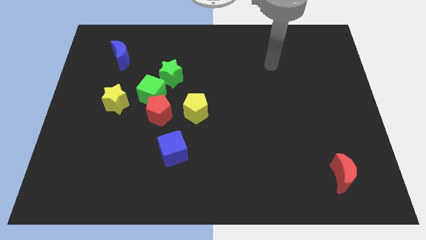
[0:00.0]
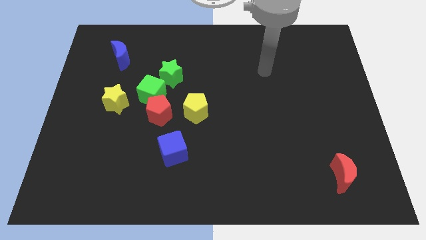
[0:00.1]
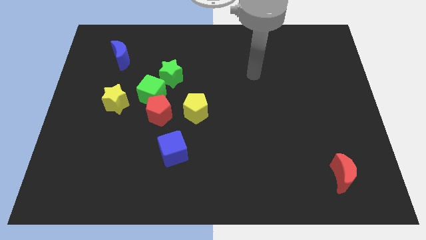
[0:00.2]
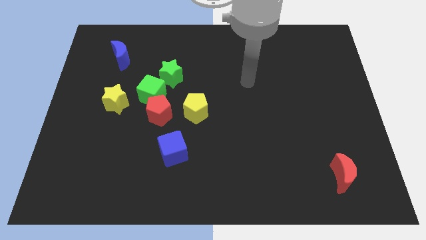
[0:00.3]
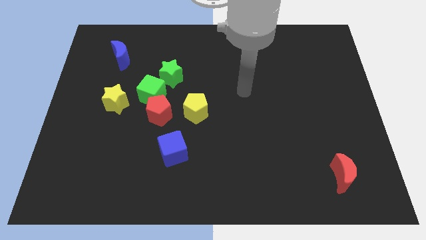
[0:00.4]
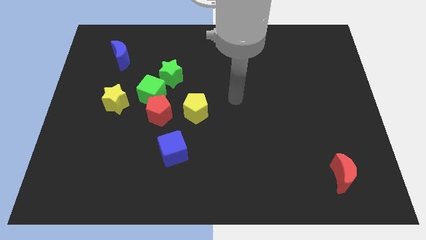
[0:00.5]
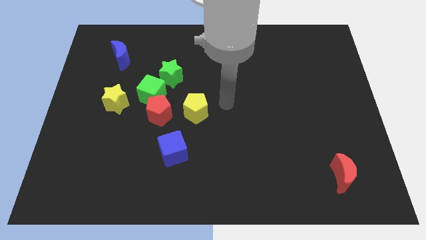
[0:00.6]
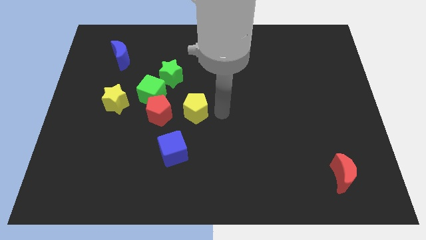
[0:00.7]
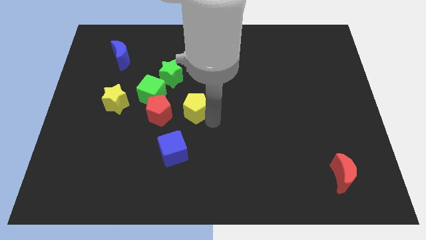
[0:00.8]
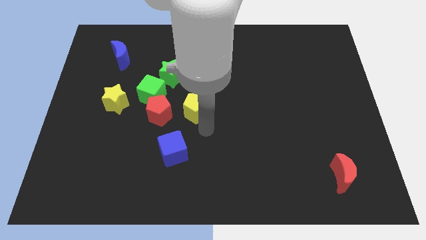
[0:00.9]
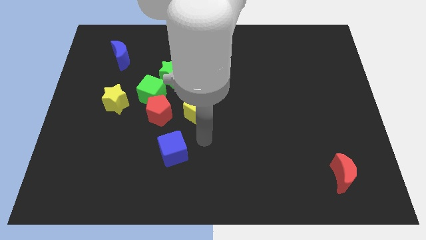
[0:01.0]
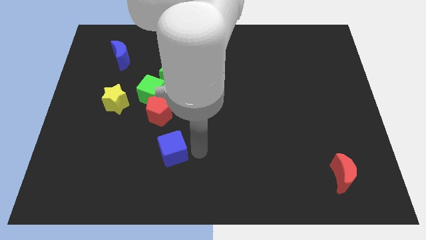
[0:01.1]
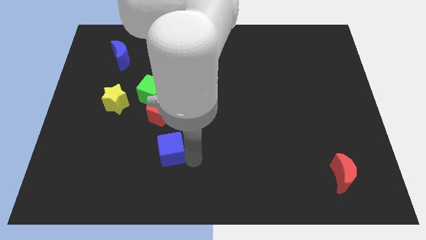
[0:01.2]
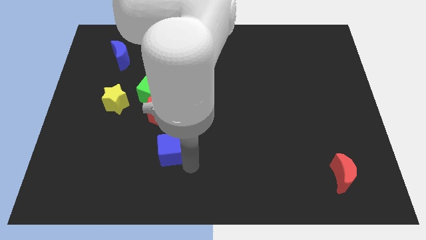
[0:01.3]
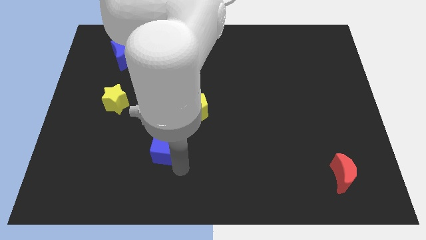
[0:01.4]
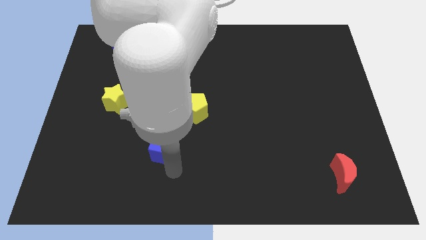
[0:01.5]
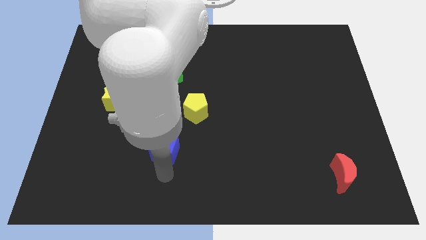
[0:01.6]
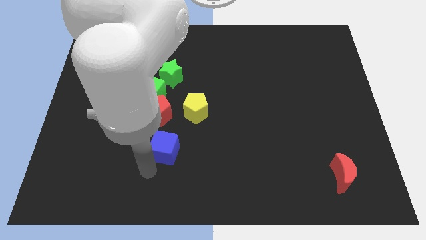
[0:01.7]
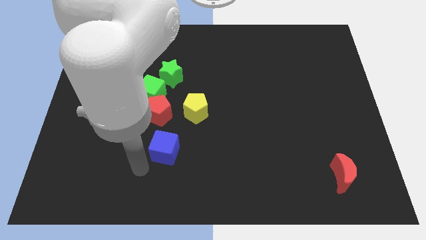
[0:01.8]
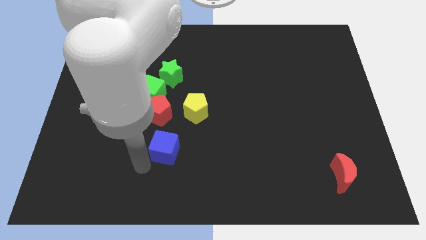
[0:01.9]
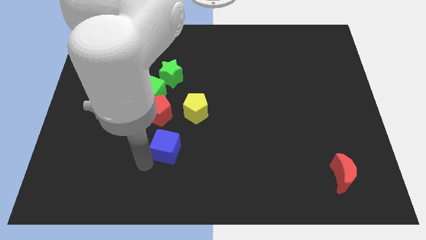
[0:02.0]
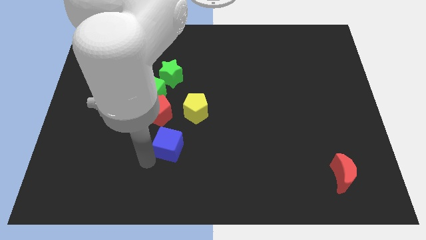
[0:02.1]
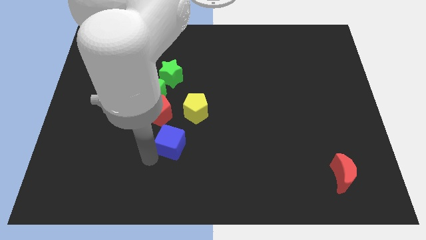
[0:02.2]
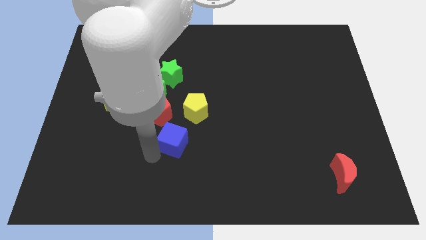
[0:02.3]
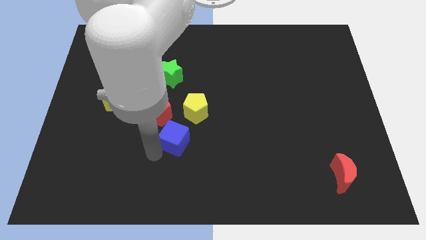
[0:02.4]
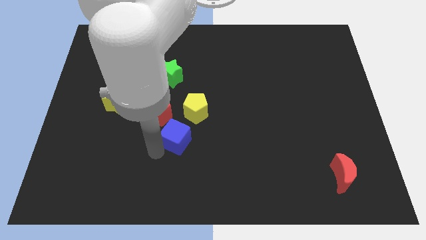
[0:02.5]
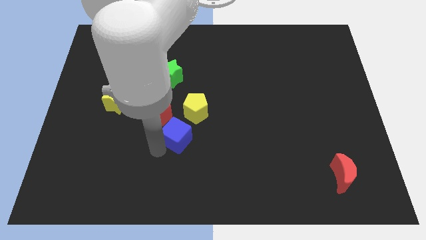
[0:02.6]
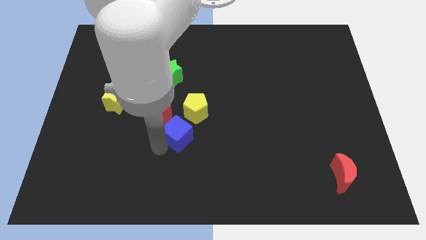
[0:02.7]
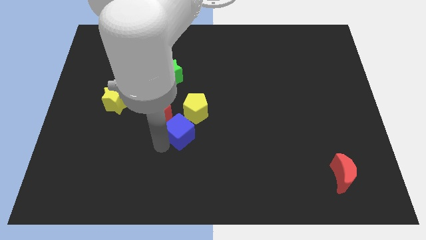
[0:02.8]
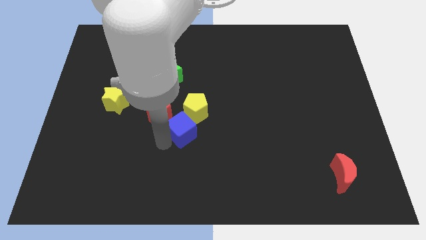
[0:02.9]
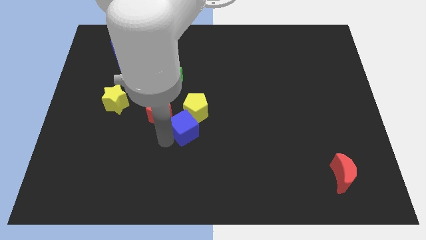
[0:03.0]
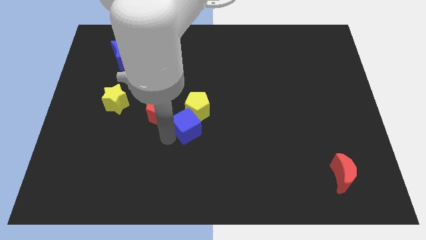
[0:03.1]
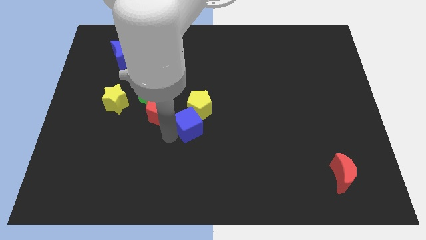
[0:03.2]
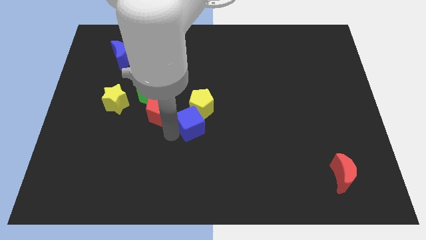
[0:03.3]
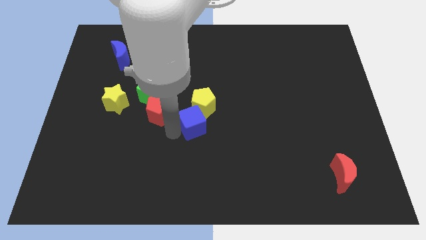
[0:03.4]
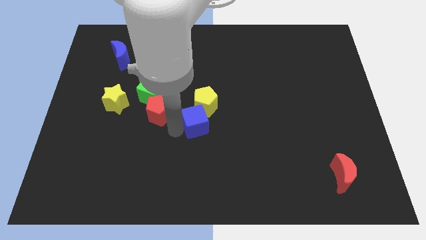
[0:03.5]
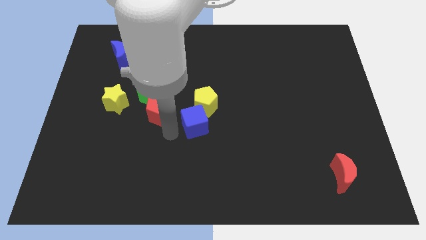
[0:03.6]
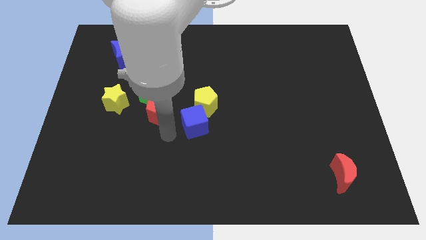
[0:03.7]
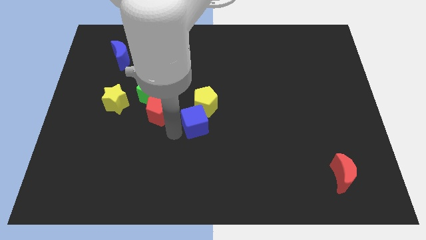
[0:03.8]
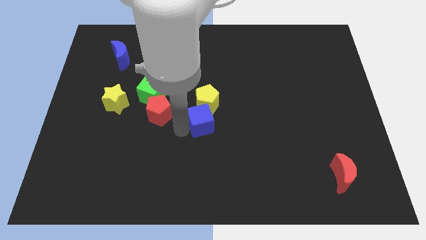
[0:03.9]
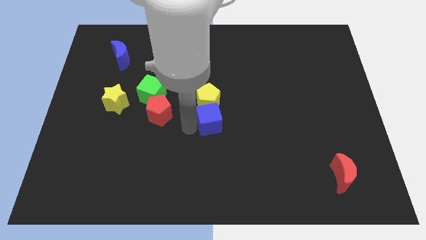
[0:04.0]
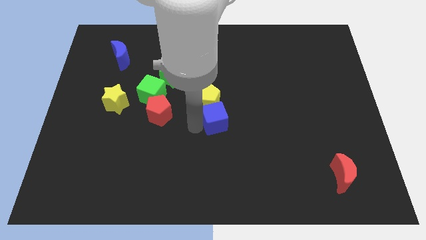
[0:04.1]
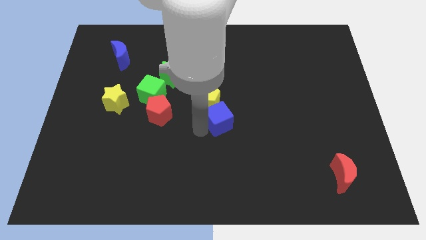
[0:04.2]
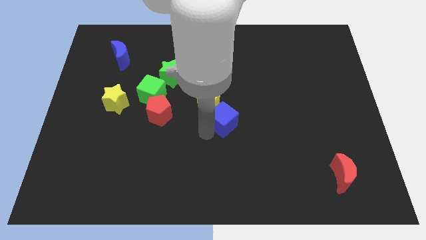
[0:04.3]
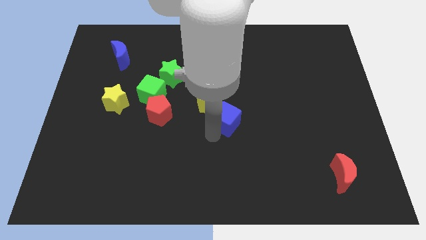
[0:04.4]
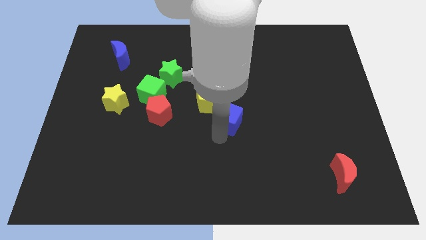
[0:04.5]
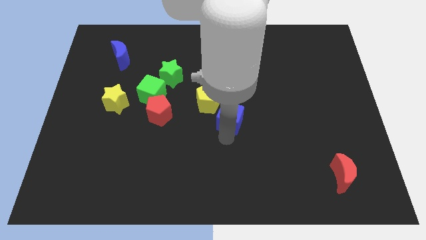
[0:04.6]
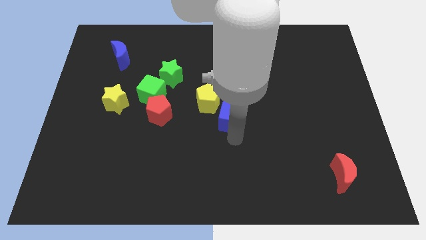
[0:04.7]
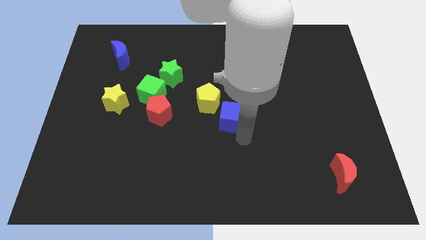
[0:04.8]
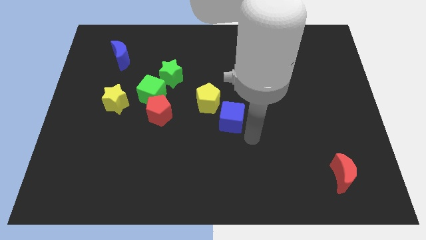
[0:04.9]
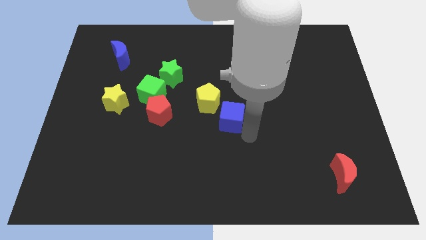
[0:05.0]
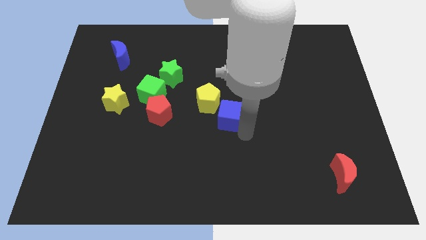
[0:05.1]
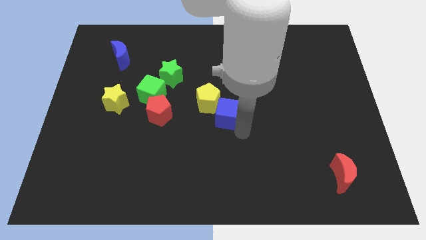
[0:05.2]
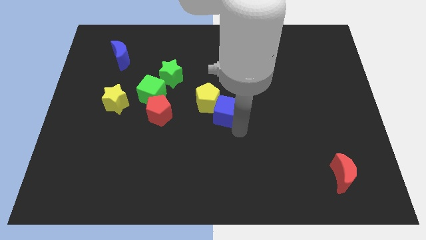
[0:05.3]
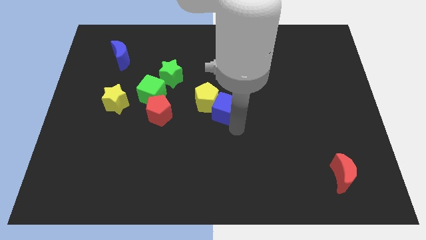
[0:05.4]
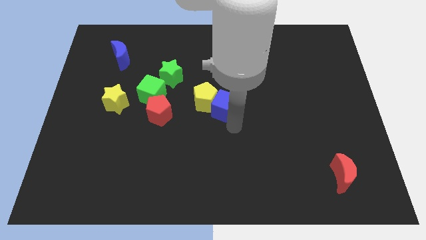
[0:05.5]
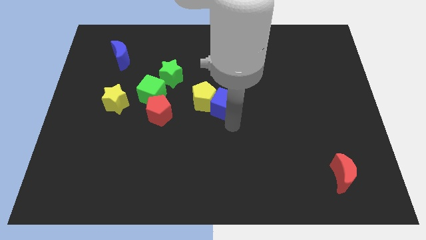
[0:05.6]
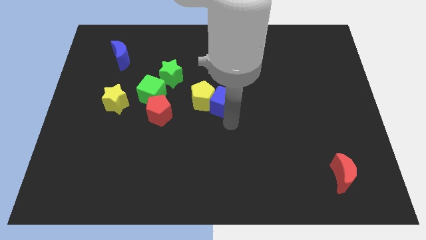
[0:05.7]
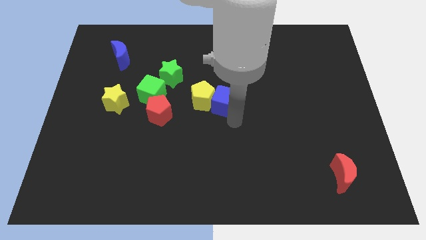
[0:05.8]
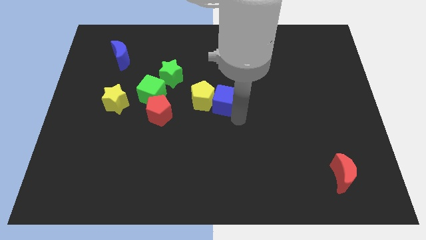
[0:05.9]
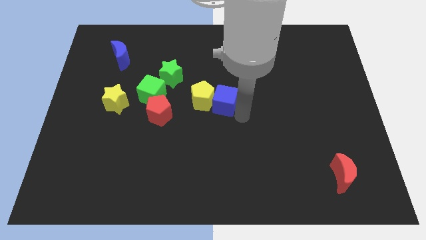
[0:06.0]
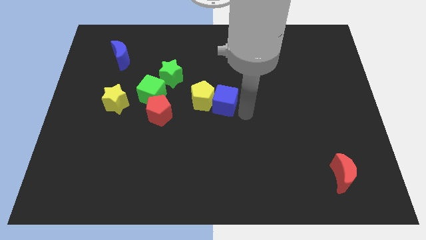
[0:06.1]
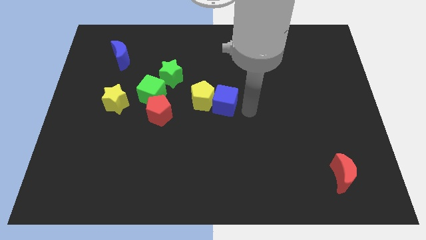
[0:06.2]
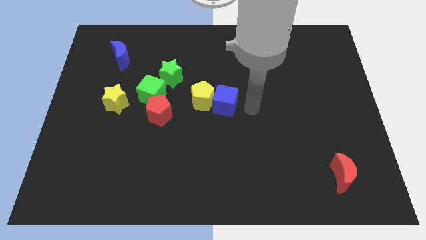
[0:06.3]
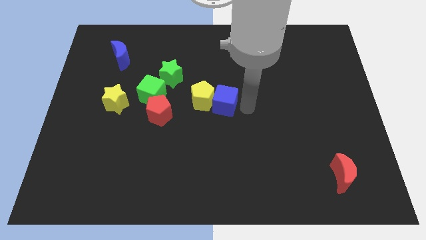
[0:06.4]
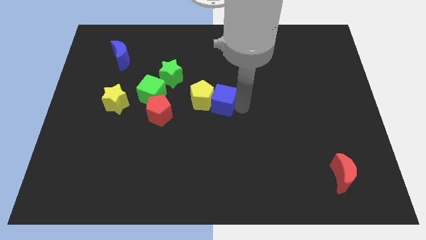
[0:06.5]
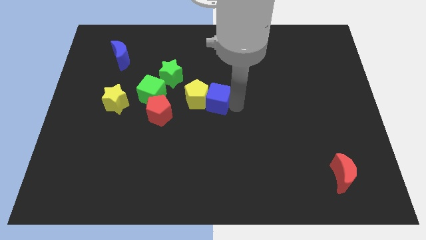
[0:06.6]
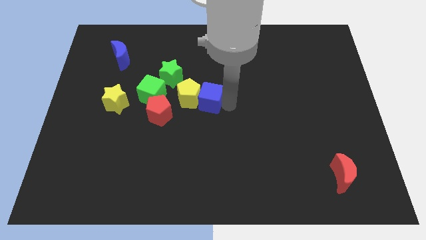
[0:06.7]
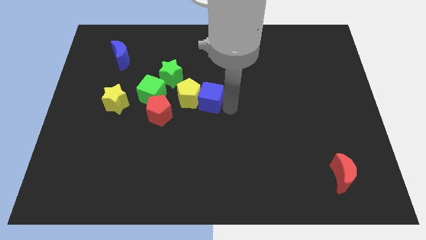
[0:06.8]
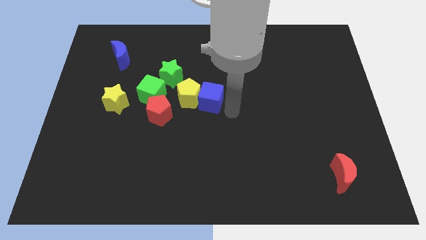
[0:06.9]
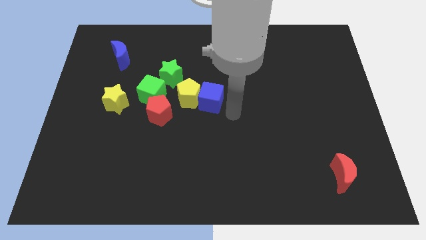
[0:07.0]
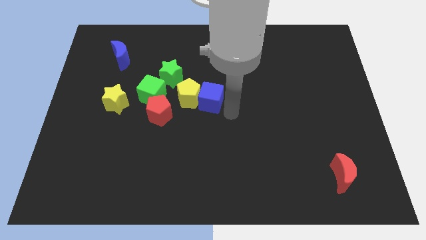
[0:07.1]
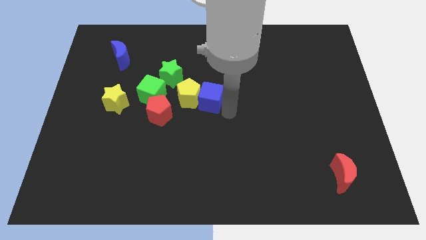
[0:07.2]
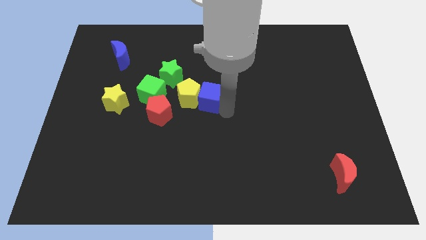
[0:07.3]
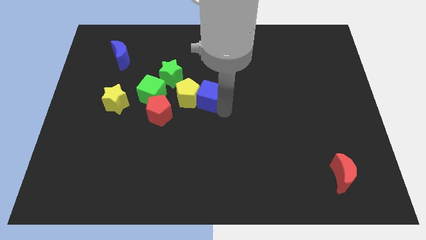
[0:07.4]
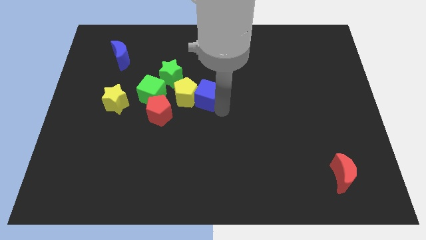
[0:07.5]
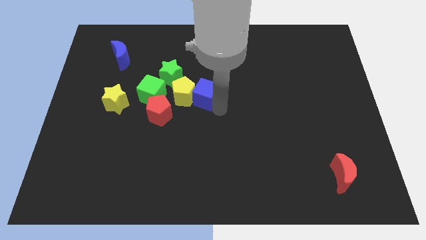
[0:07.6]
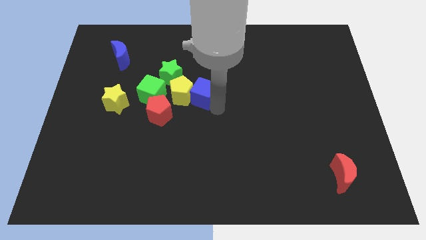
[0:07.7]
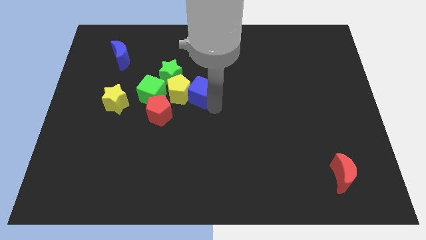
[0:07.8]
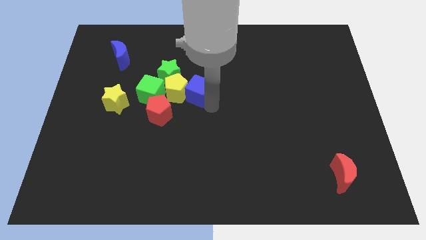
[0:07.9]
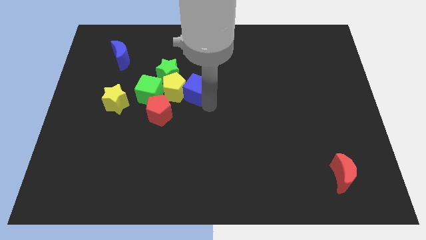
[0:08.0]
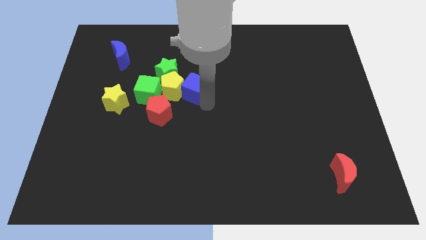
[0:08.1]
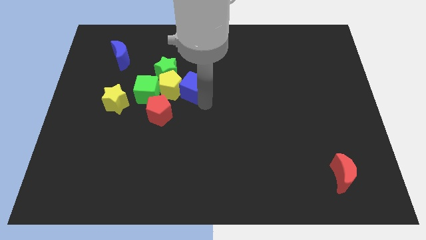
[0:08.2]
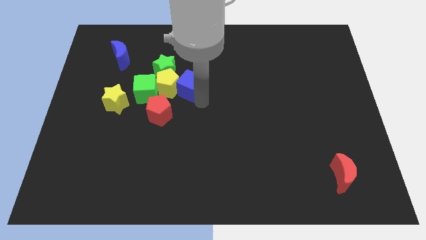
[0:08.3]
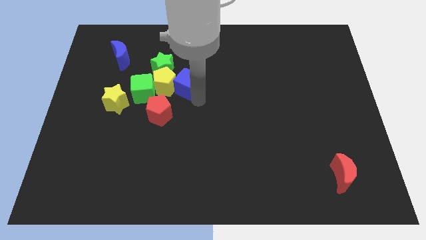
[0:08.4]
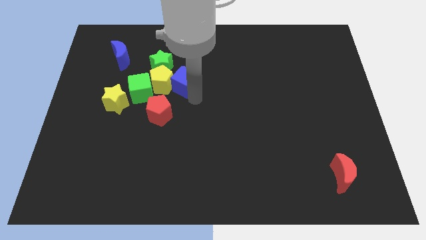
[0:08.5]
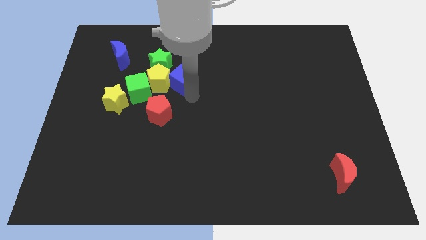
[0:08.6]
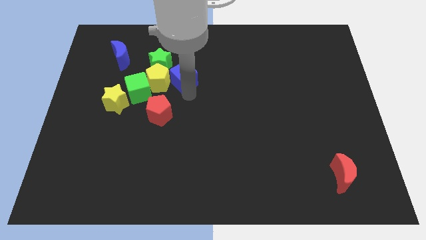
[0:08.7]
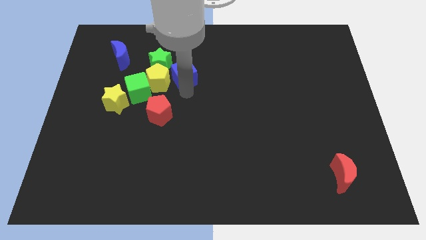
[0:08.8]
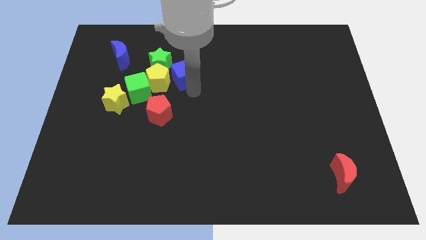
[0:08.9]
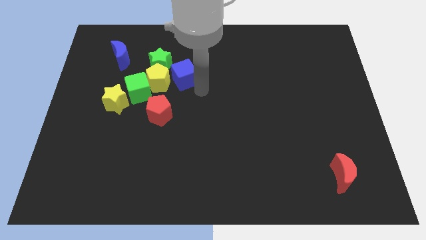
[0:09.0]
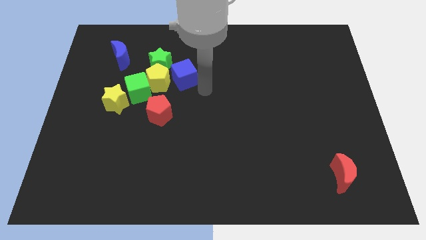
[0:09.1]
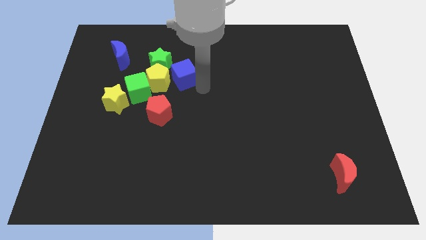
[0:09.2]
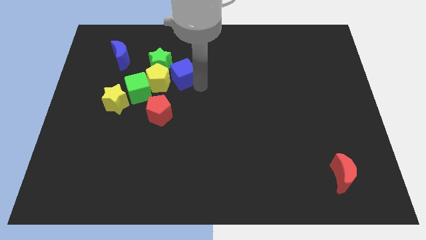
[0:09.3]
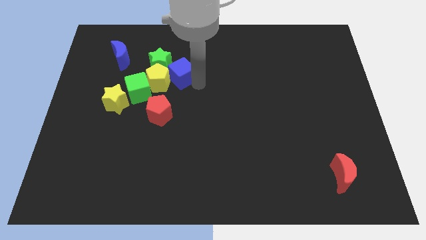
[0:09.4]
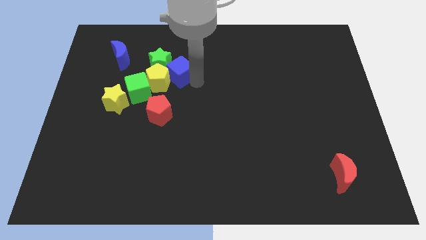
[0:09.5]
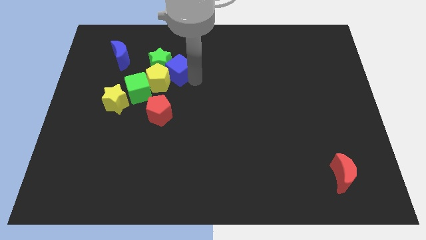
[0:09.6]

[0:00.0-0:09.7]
push the blue cube to the green star
